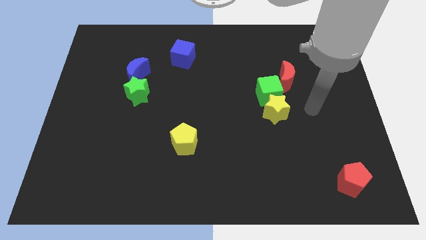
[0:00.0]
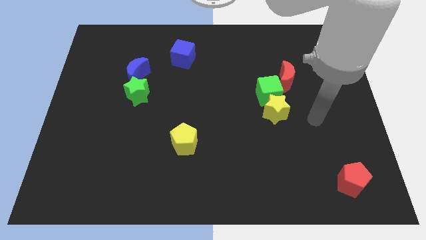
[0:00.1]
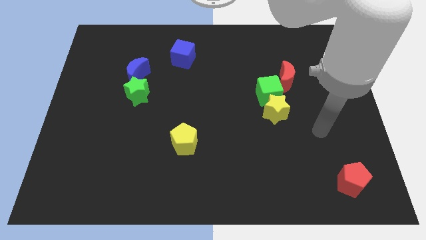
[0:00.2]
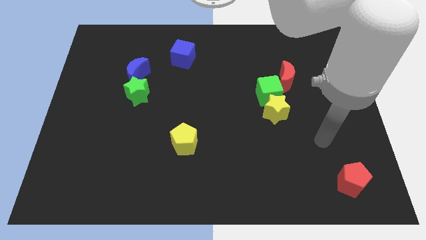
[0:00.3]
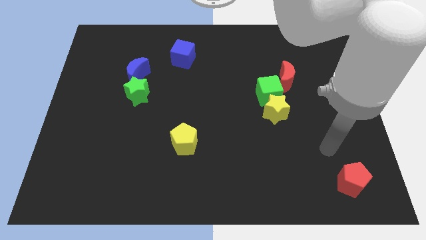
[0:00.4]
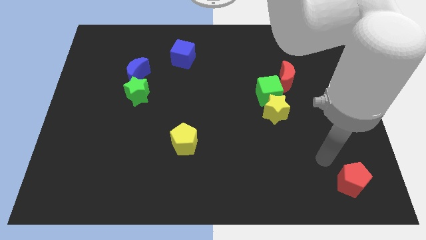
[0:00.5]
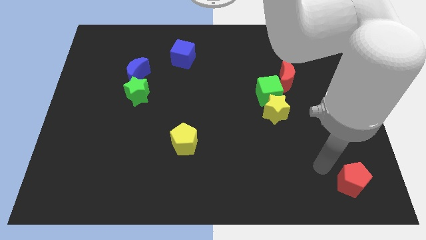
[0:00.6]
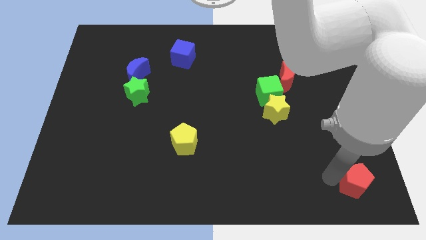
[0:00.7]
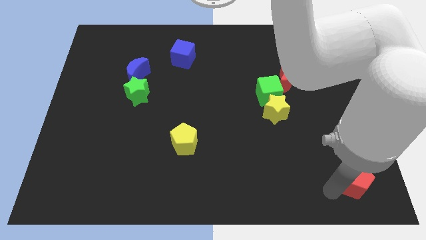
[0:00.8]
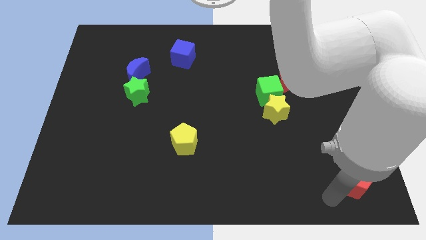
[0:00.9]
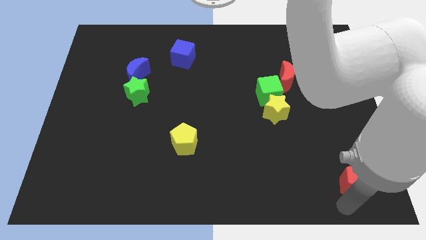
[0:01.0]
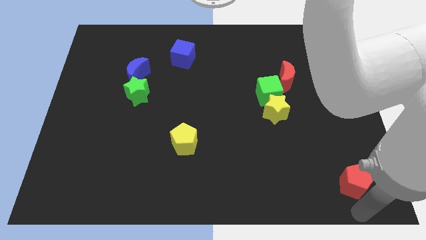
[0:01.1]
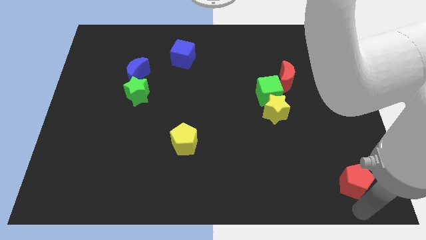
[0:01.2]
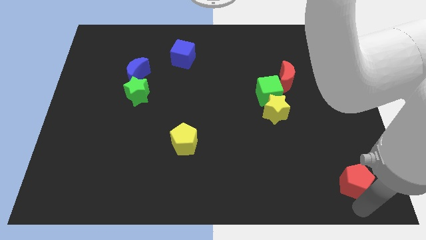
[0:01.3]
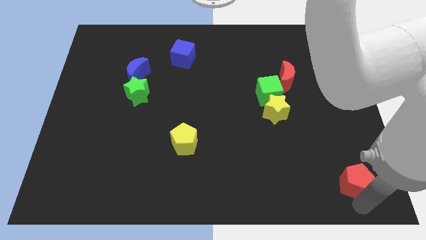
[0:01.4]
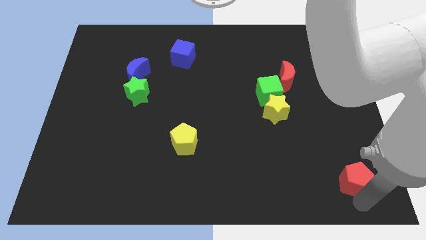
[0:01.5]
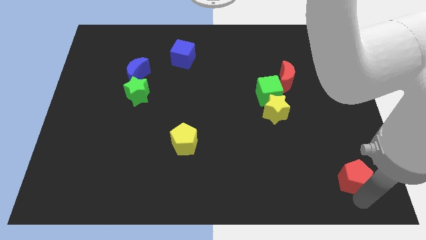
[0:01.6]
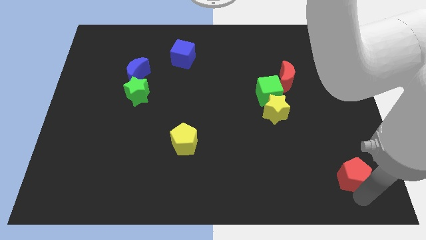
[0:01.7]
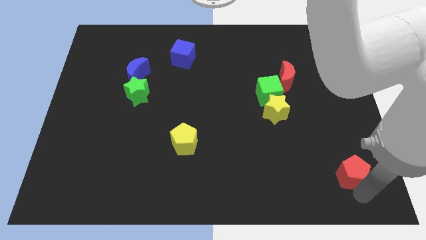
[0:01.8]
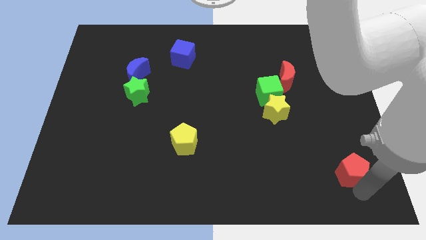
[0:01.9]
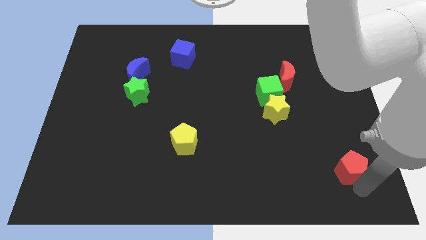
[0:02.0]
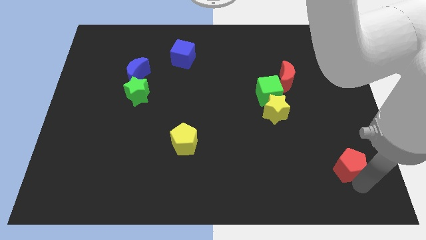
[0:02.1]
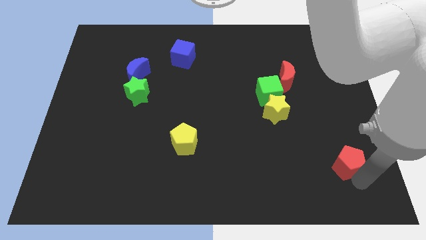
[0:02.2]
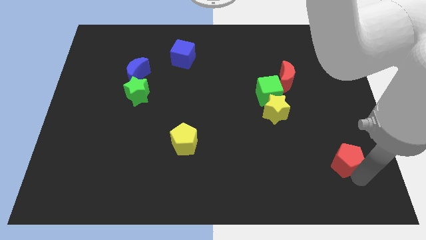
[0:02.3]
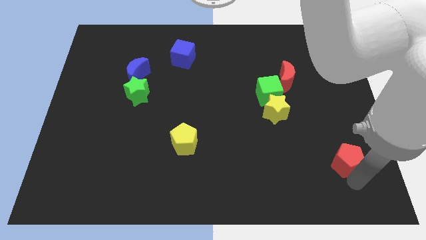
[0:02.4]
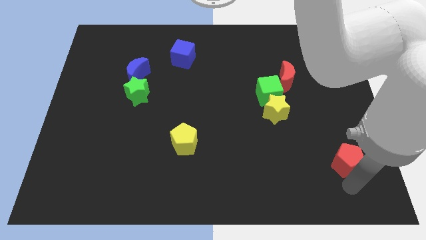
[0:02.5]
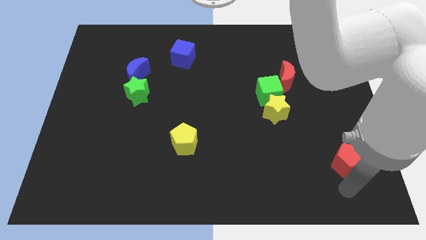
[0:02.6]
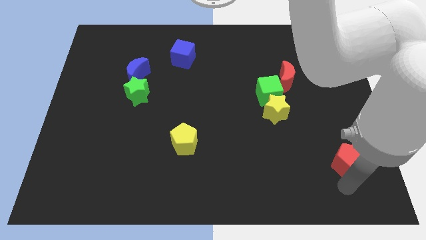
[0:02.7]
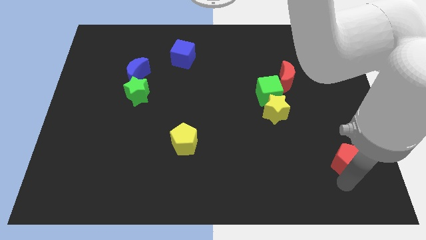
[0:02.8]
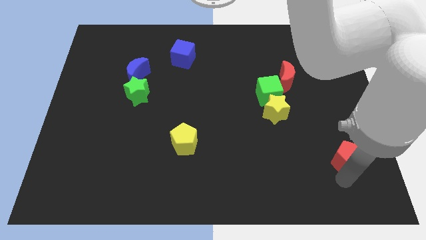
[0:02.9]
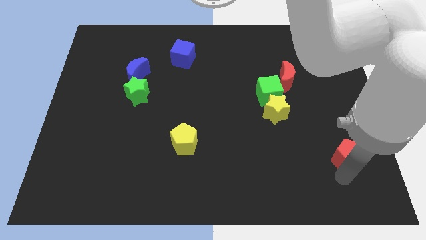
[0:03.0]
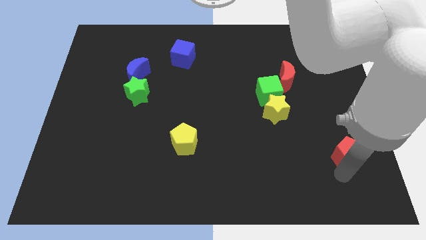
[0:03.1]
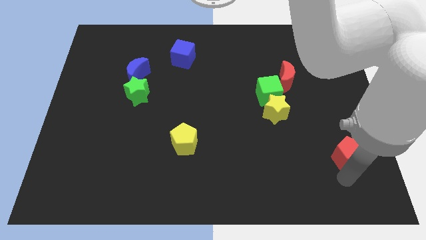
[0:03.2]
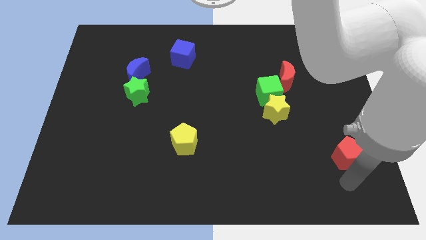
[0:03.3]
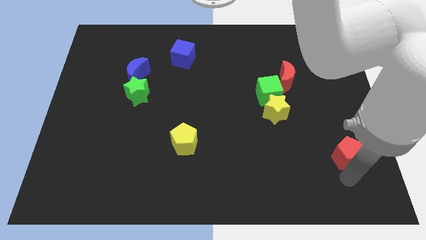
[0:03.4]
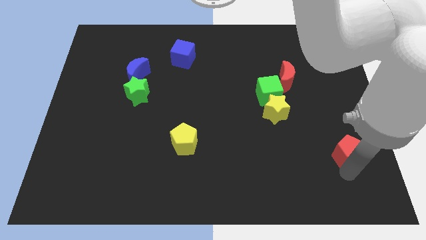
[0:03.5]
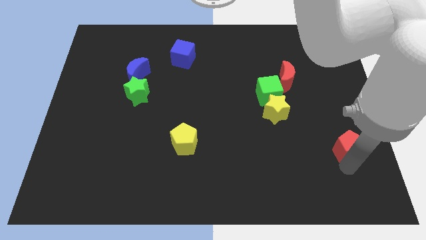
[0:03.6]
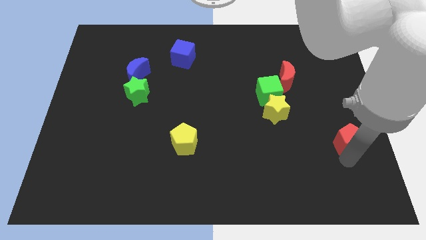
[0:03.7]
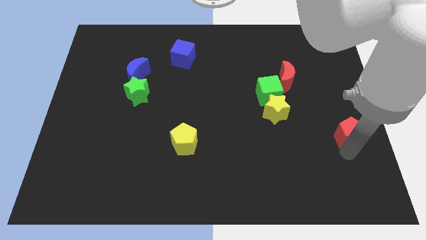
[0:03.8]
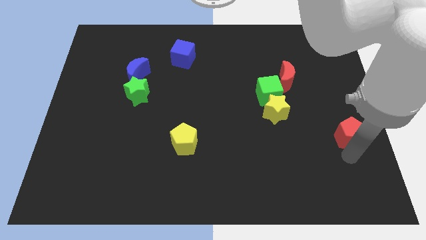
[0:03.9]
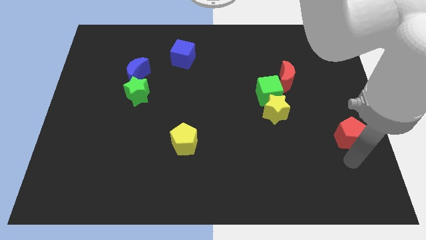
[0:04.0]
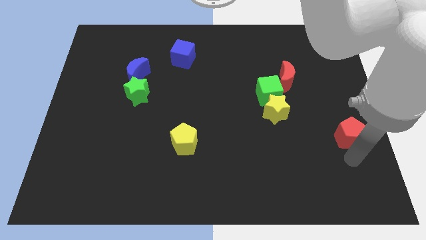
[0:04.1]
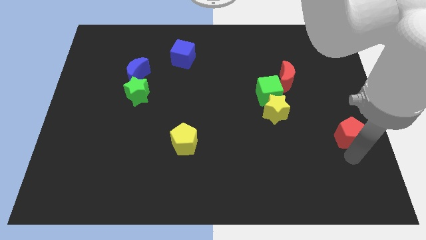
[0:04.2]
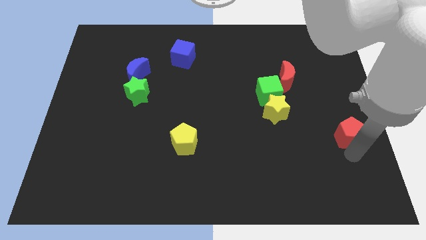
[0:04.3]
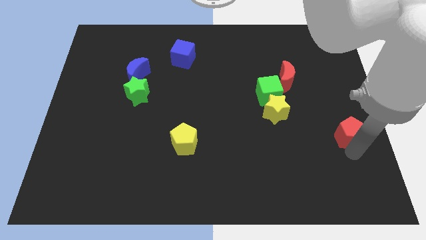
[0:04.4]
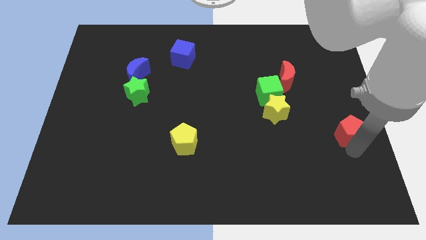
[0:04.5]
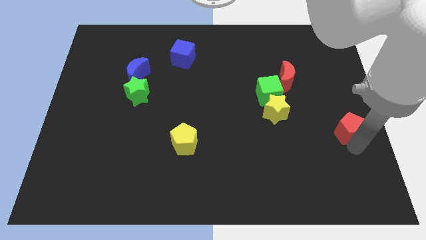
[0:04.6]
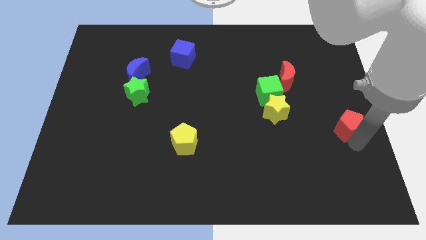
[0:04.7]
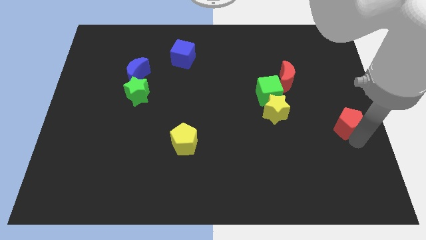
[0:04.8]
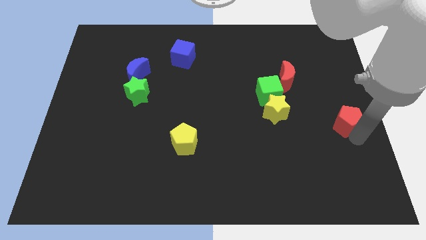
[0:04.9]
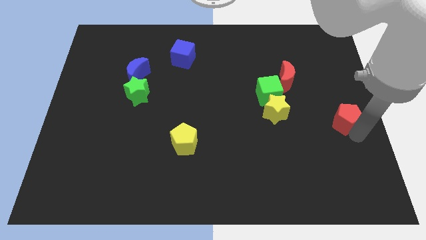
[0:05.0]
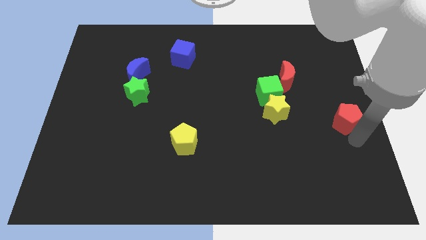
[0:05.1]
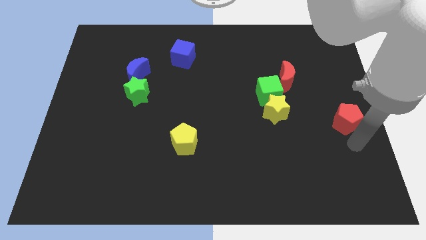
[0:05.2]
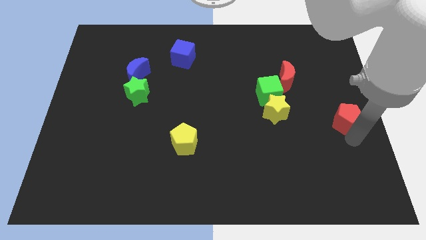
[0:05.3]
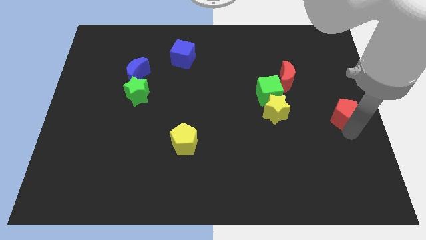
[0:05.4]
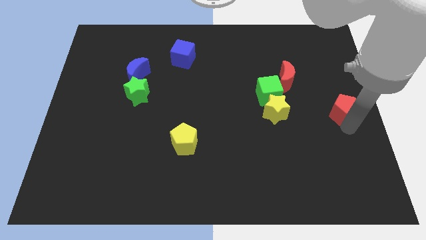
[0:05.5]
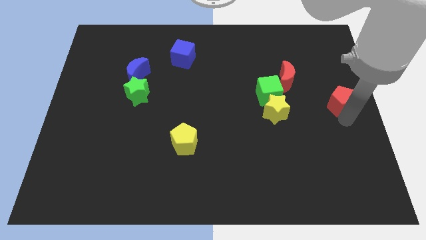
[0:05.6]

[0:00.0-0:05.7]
slide the red pentagon up

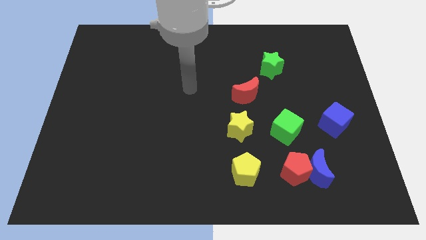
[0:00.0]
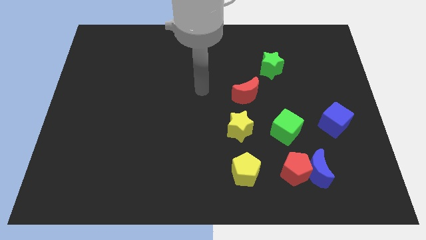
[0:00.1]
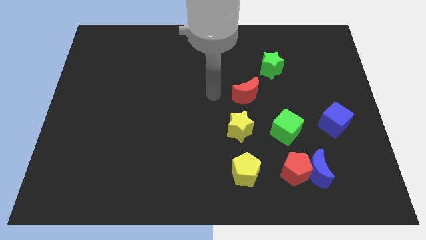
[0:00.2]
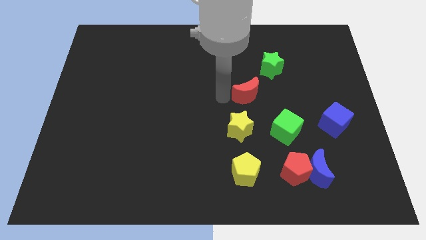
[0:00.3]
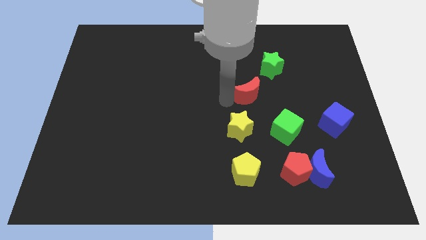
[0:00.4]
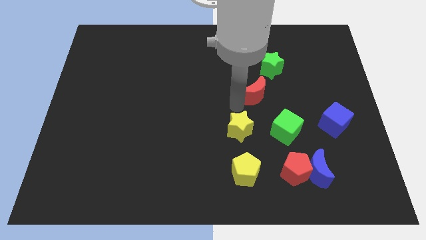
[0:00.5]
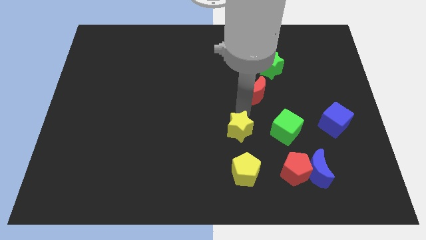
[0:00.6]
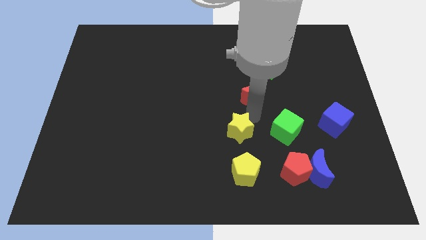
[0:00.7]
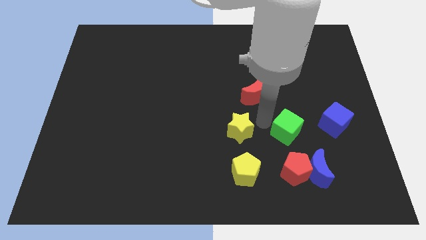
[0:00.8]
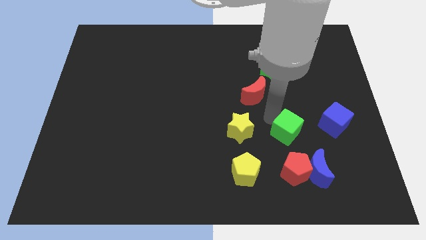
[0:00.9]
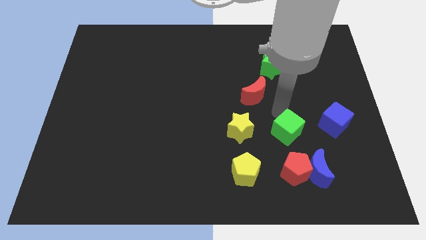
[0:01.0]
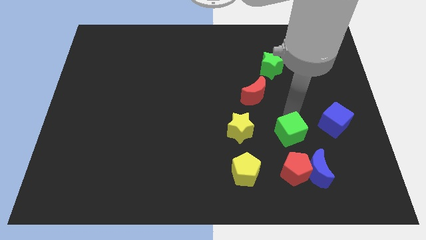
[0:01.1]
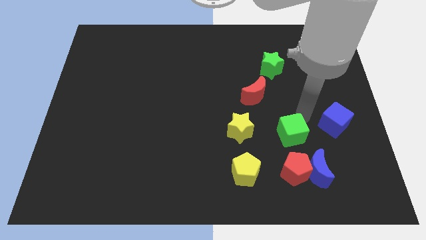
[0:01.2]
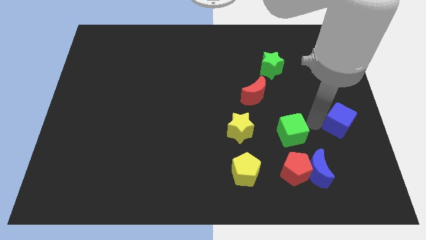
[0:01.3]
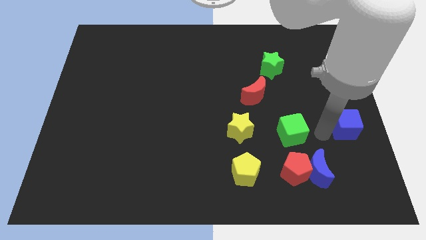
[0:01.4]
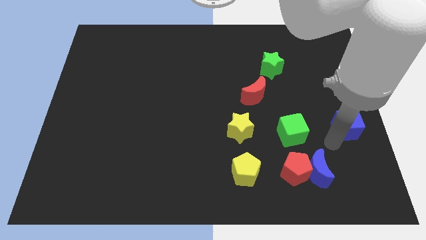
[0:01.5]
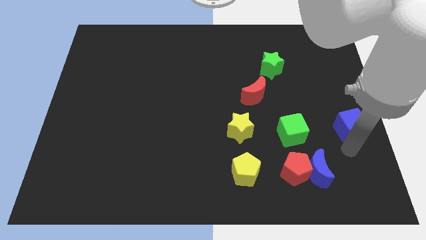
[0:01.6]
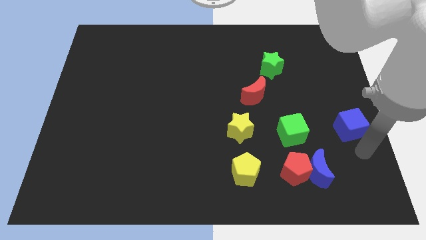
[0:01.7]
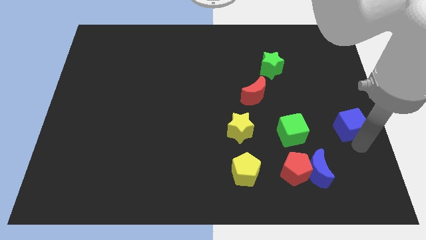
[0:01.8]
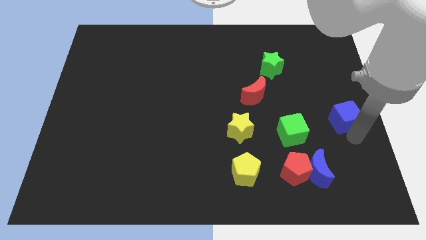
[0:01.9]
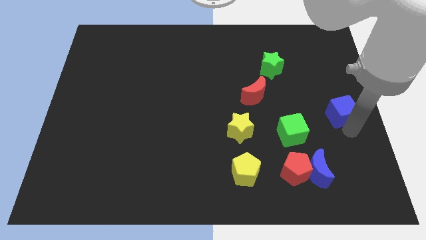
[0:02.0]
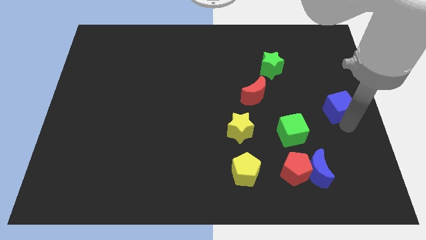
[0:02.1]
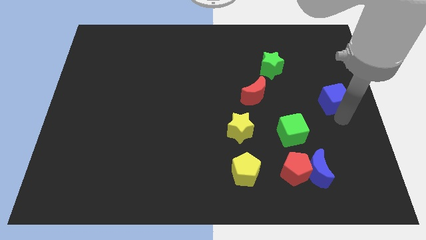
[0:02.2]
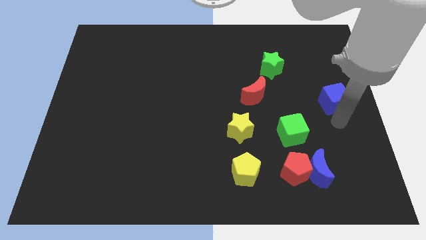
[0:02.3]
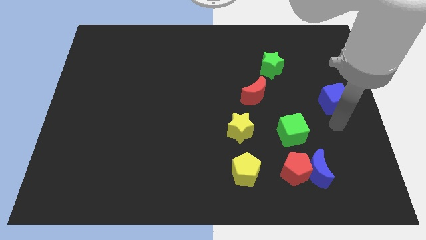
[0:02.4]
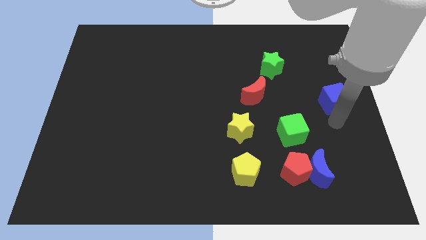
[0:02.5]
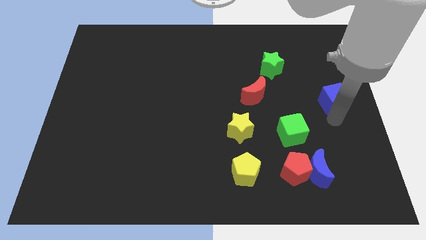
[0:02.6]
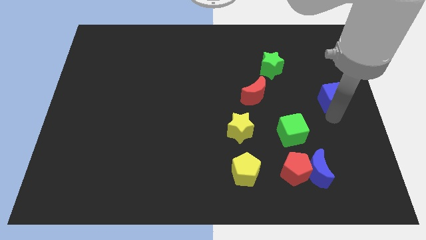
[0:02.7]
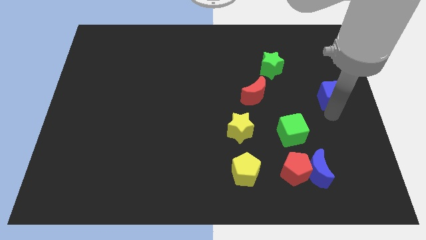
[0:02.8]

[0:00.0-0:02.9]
move the blue cube a bit up
